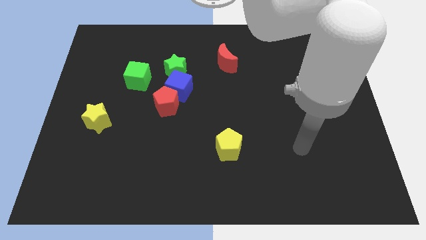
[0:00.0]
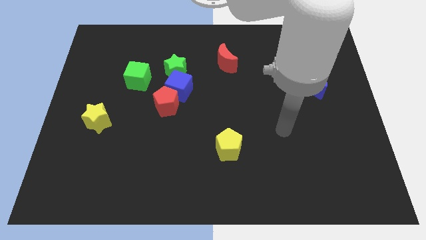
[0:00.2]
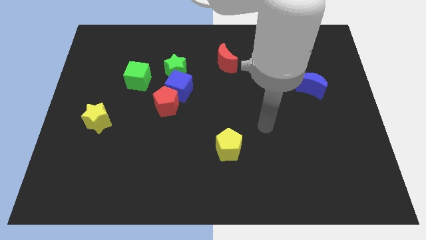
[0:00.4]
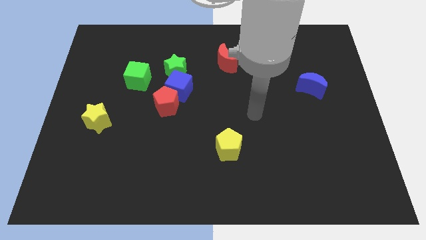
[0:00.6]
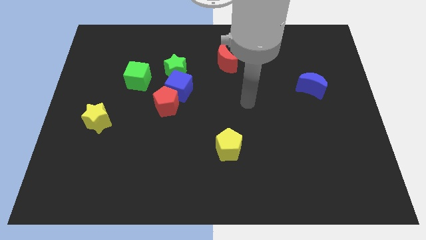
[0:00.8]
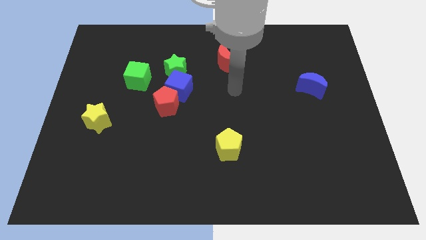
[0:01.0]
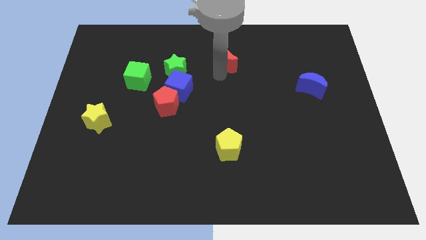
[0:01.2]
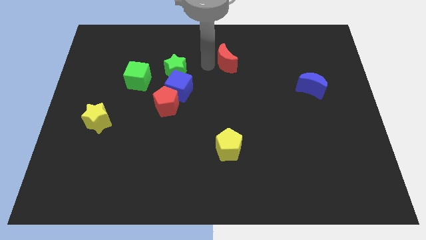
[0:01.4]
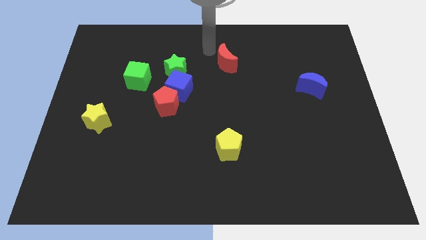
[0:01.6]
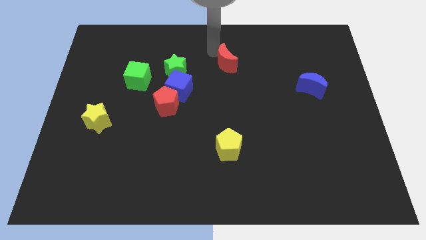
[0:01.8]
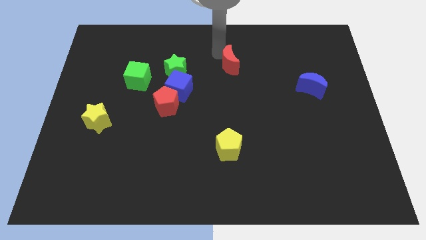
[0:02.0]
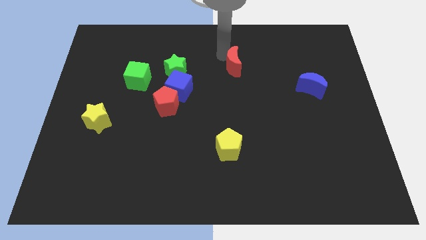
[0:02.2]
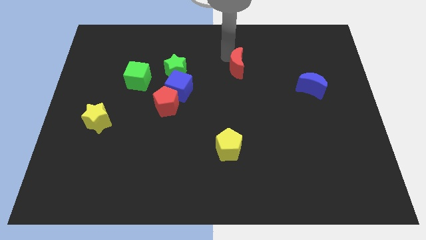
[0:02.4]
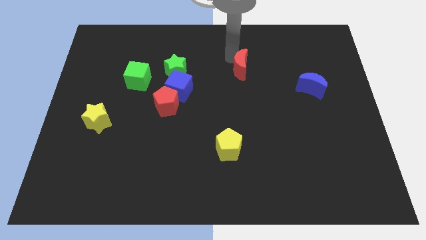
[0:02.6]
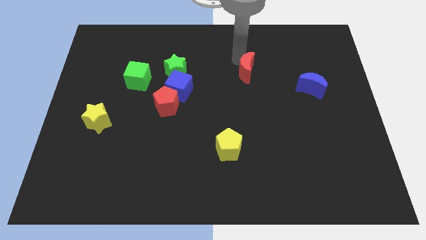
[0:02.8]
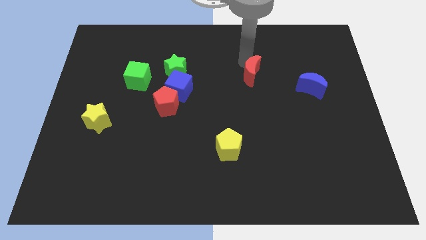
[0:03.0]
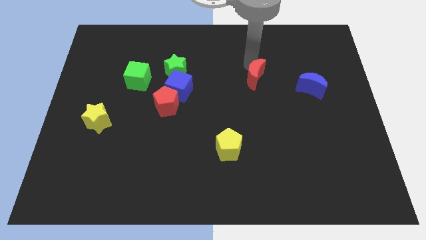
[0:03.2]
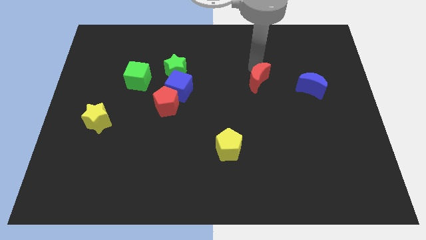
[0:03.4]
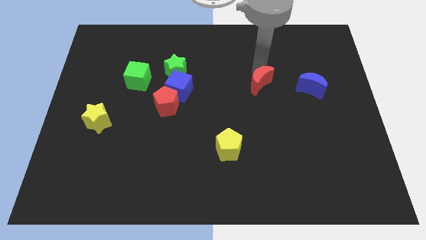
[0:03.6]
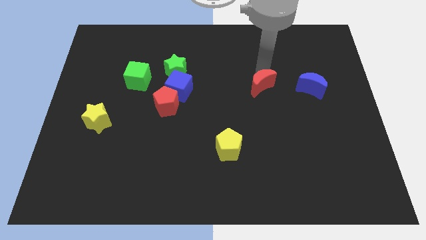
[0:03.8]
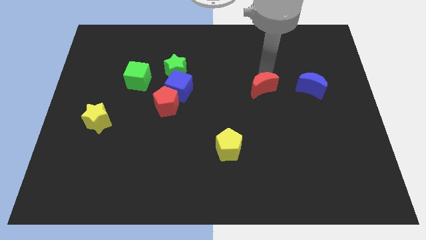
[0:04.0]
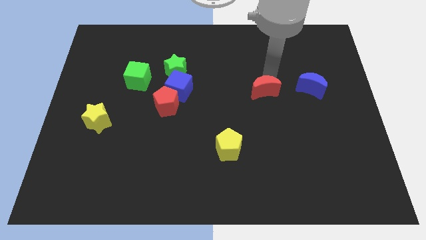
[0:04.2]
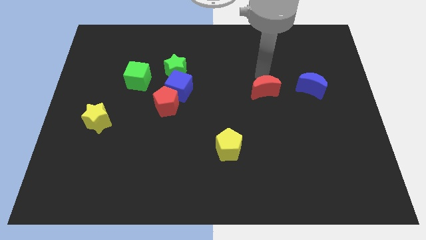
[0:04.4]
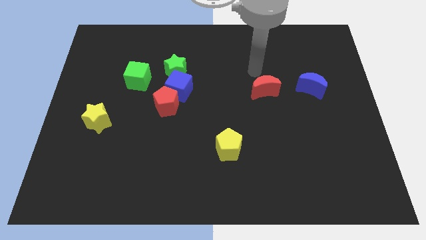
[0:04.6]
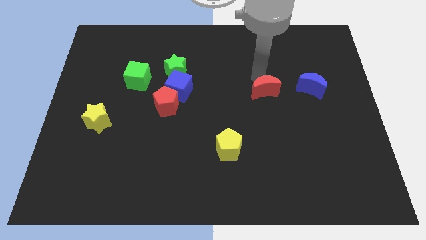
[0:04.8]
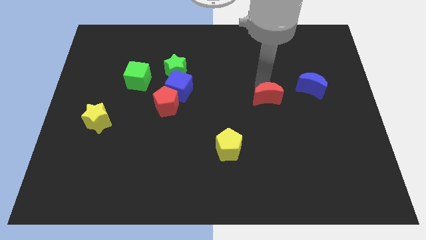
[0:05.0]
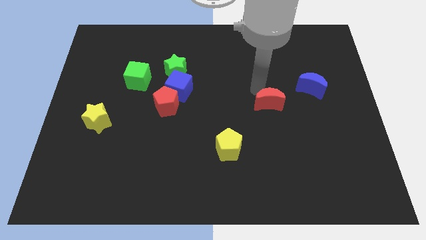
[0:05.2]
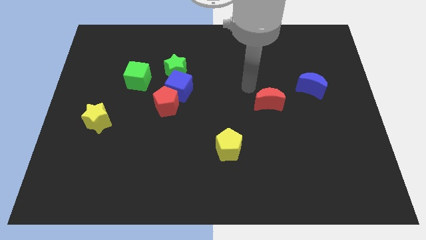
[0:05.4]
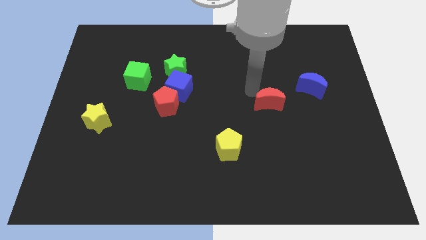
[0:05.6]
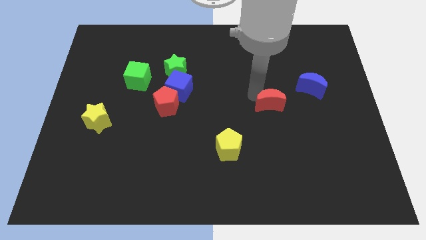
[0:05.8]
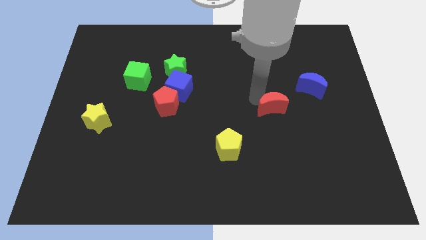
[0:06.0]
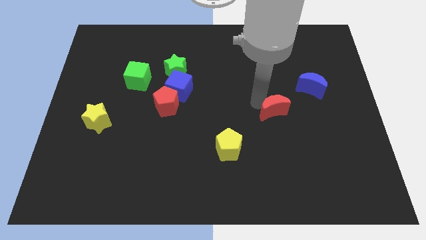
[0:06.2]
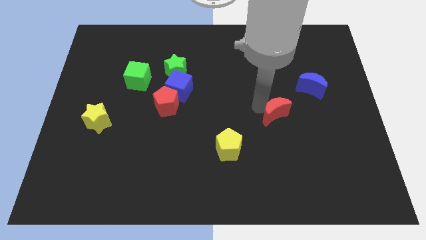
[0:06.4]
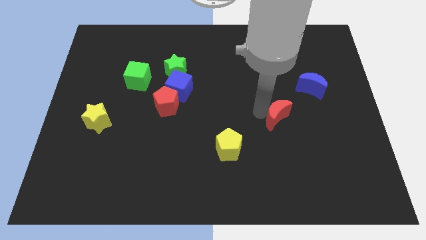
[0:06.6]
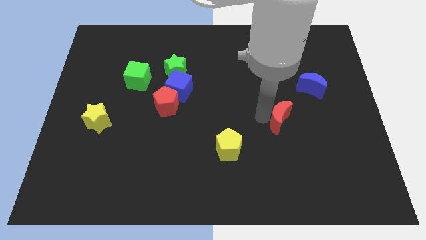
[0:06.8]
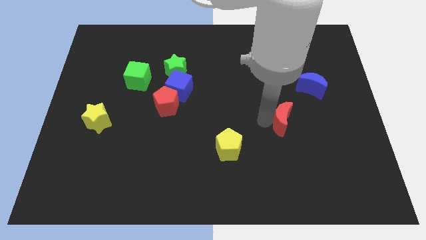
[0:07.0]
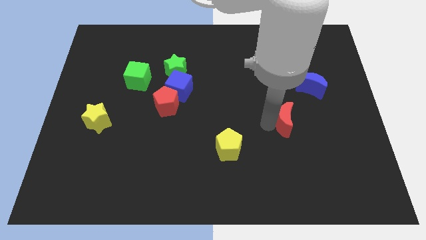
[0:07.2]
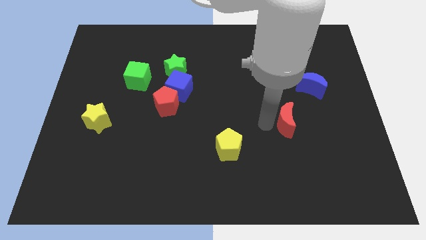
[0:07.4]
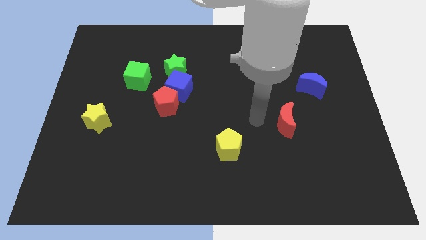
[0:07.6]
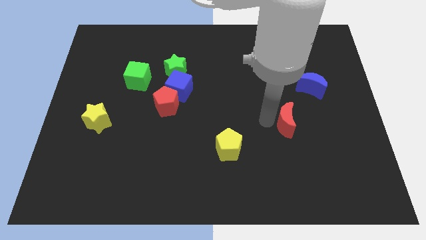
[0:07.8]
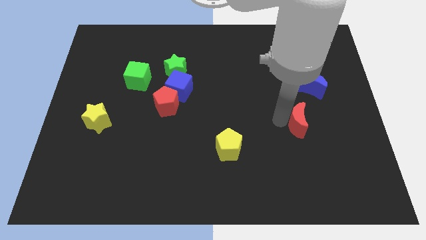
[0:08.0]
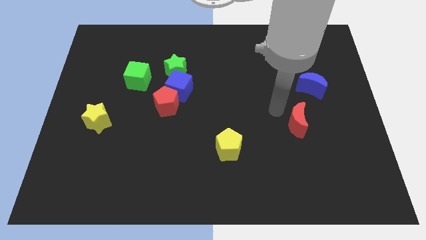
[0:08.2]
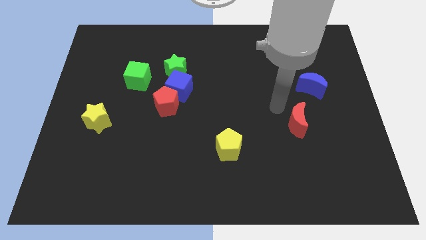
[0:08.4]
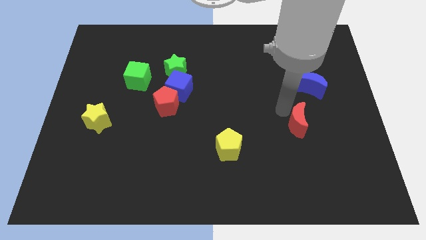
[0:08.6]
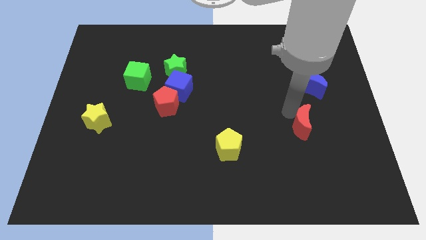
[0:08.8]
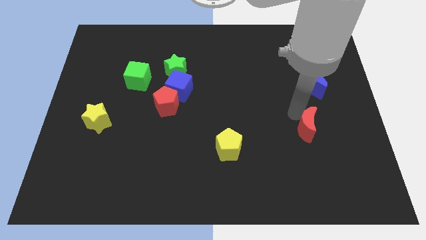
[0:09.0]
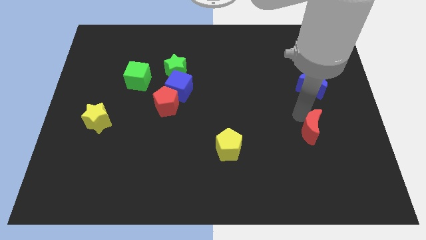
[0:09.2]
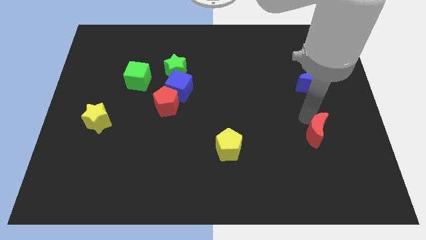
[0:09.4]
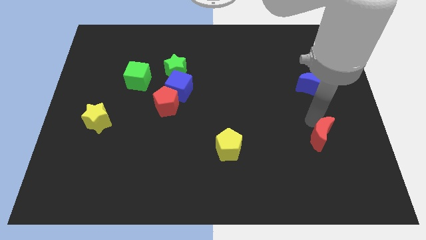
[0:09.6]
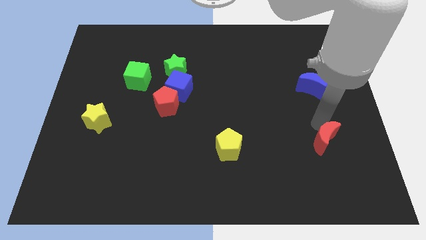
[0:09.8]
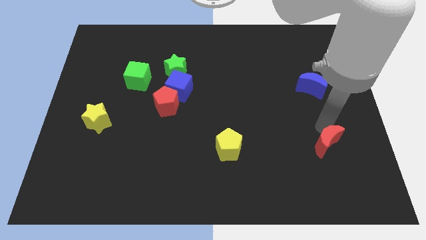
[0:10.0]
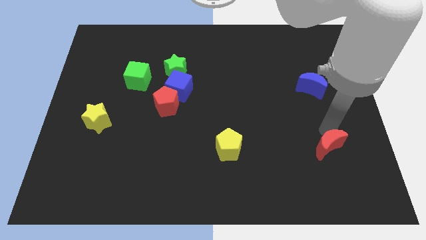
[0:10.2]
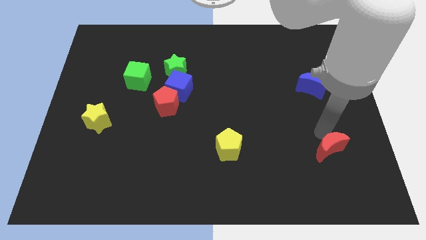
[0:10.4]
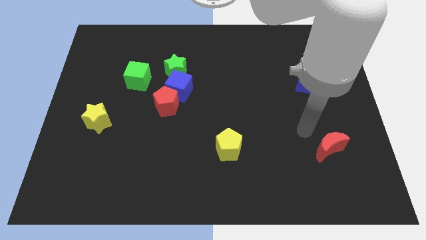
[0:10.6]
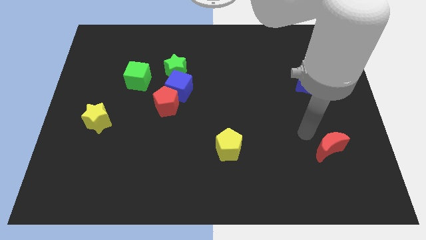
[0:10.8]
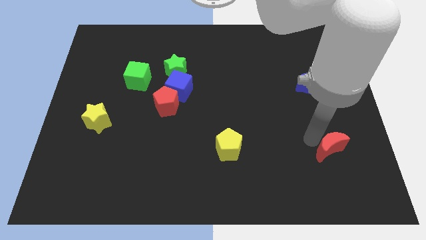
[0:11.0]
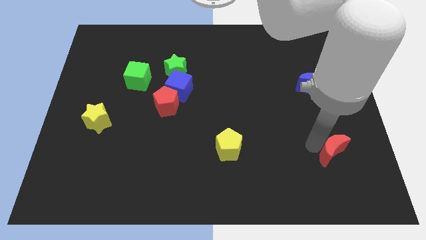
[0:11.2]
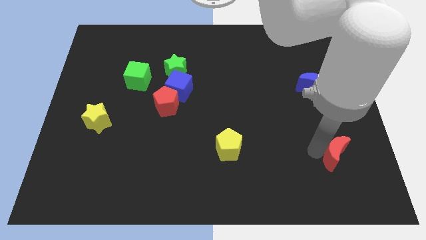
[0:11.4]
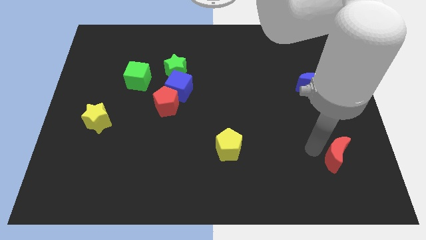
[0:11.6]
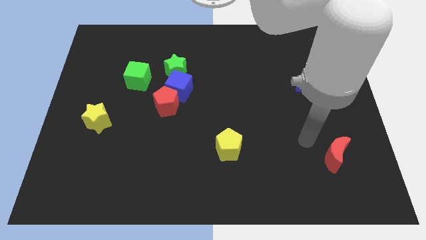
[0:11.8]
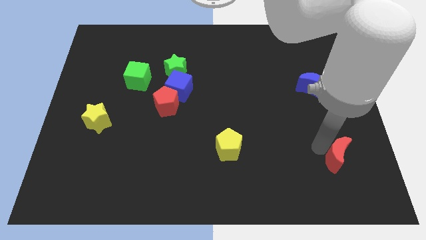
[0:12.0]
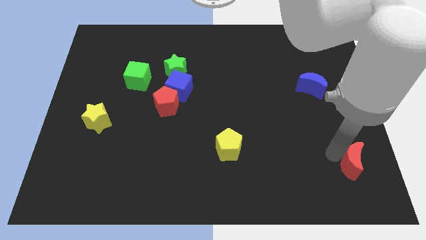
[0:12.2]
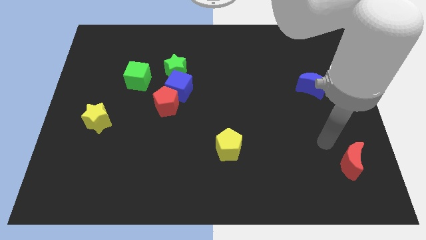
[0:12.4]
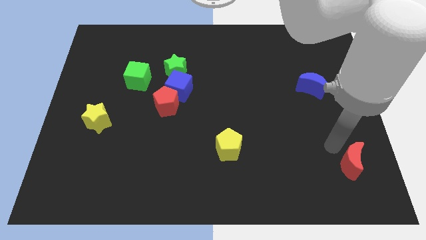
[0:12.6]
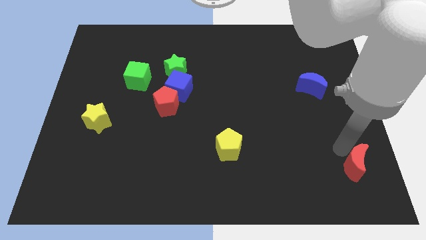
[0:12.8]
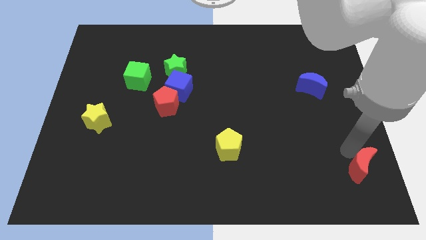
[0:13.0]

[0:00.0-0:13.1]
put the red moon to the bottom right corner
